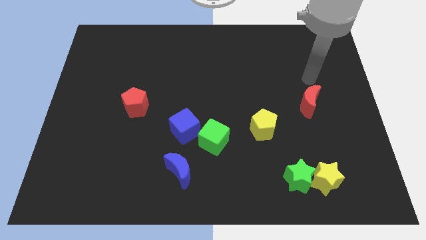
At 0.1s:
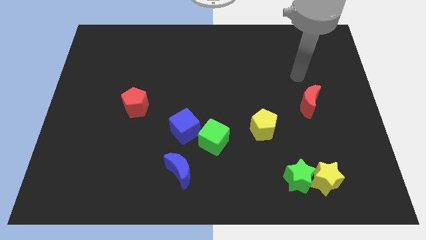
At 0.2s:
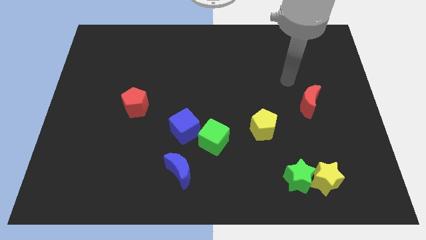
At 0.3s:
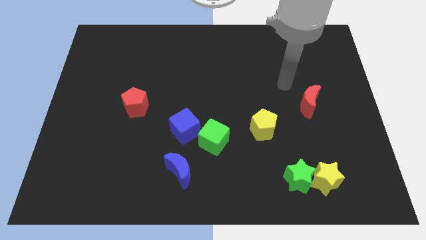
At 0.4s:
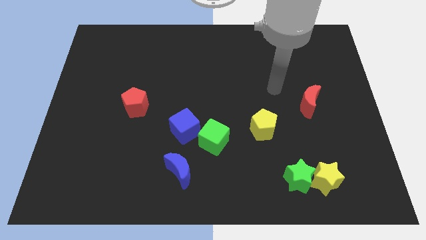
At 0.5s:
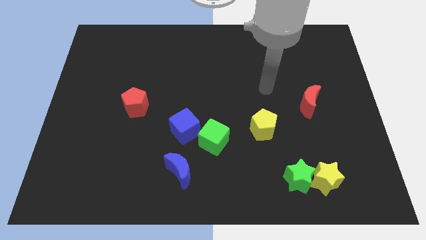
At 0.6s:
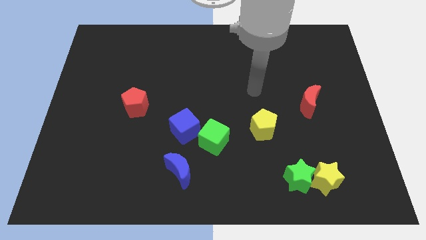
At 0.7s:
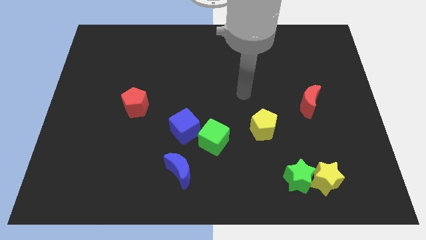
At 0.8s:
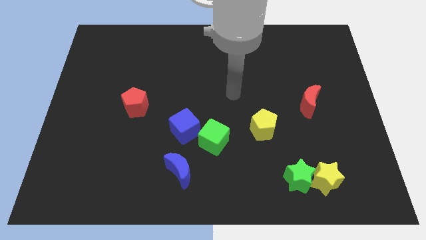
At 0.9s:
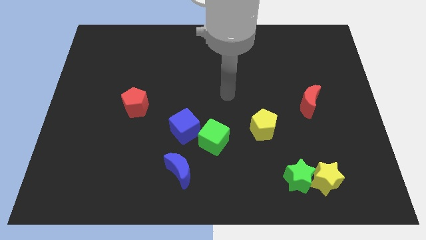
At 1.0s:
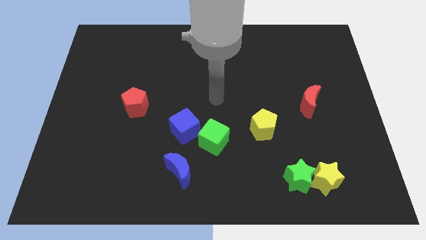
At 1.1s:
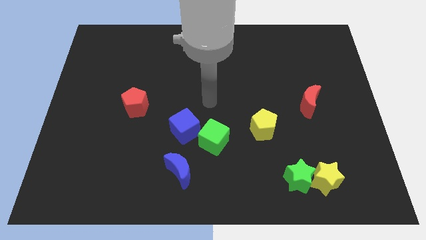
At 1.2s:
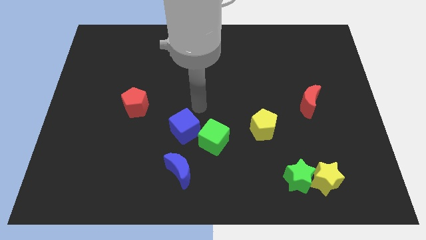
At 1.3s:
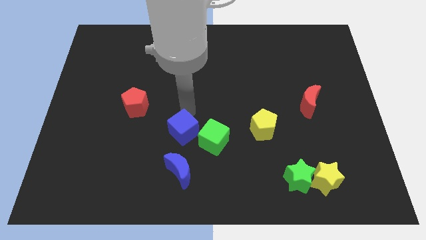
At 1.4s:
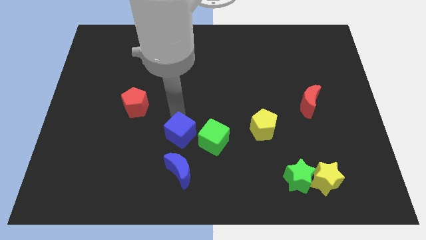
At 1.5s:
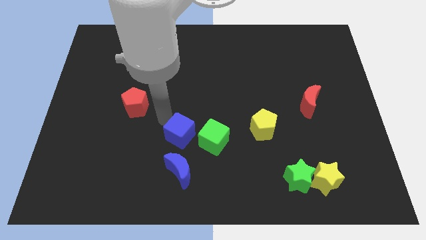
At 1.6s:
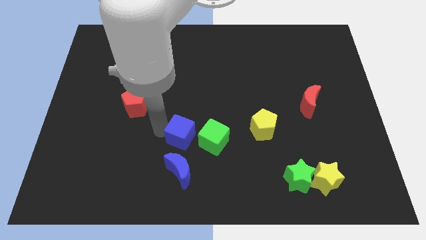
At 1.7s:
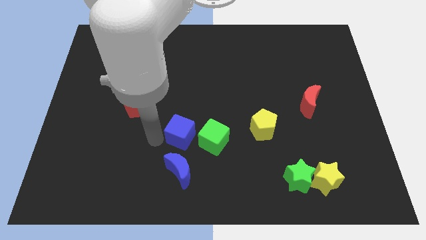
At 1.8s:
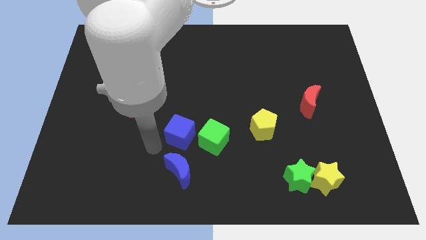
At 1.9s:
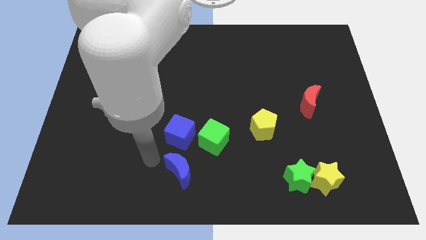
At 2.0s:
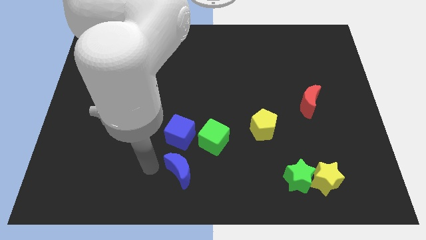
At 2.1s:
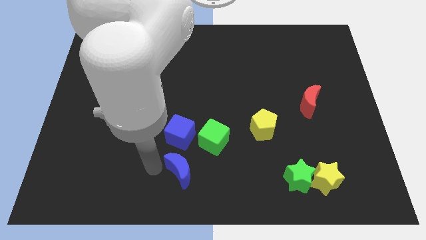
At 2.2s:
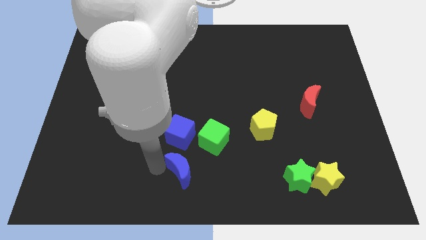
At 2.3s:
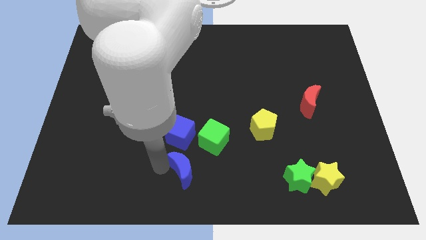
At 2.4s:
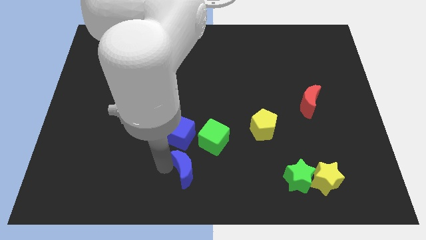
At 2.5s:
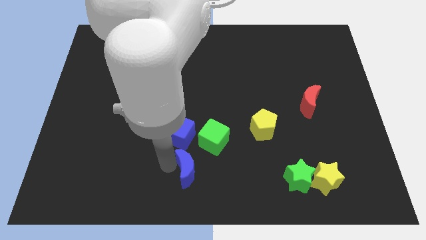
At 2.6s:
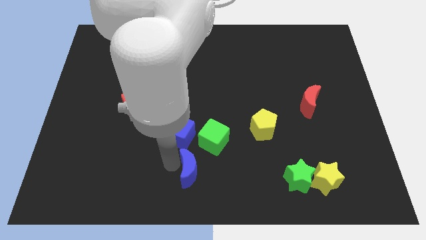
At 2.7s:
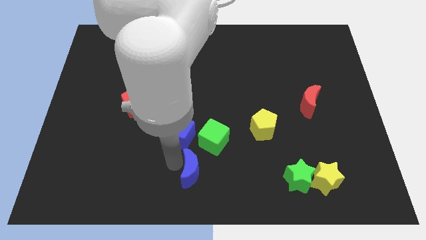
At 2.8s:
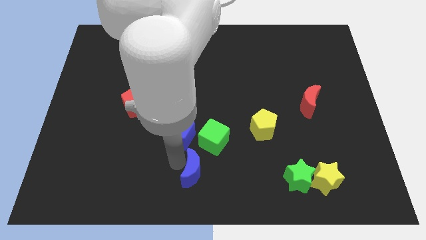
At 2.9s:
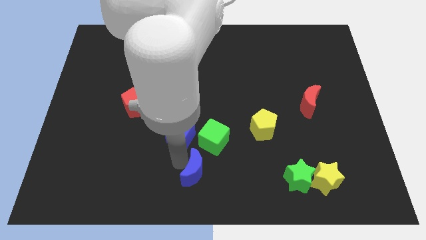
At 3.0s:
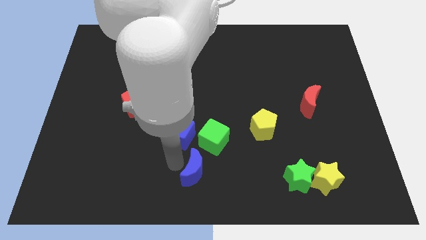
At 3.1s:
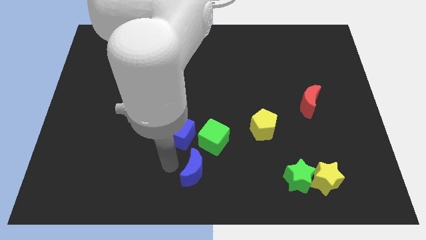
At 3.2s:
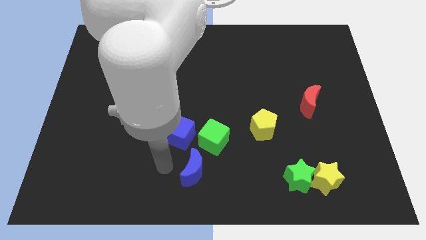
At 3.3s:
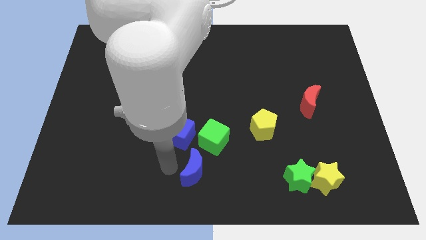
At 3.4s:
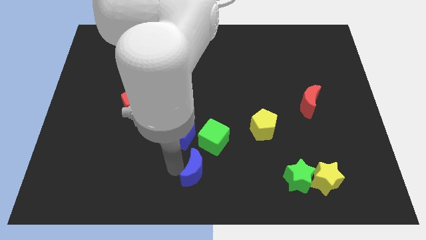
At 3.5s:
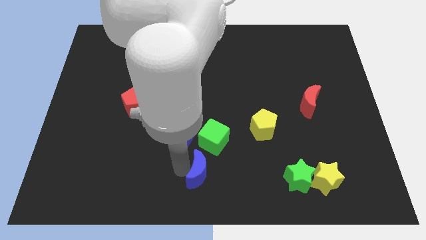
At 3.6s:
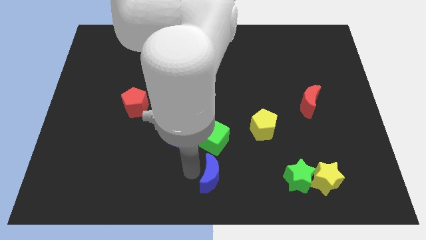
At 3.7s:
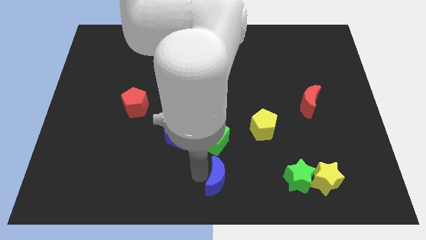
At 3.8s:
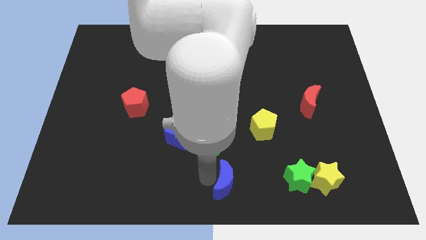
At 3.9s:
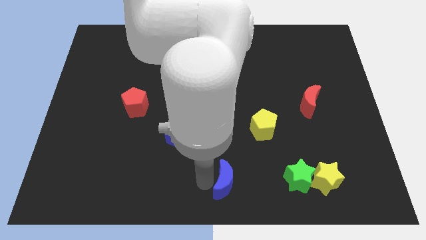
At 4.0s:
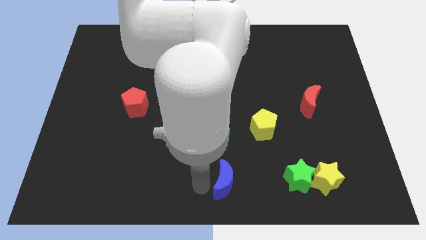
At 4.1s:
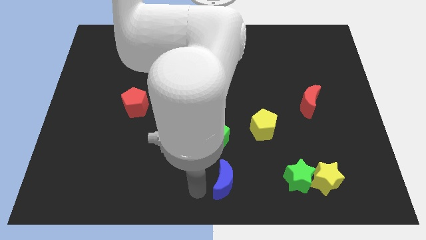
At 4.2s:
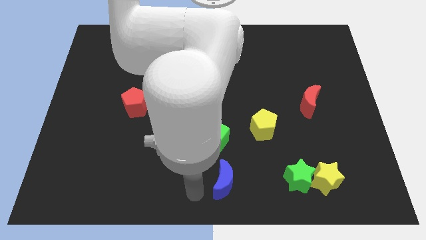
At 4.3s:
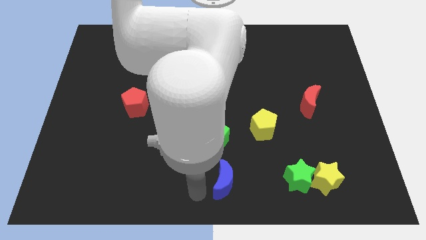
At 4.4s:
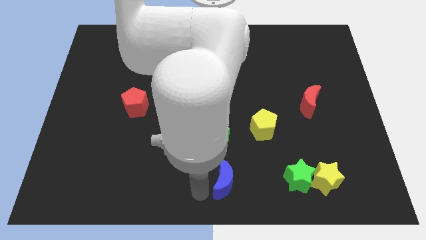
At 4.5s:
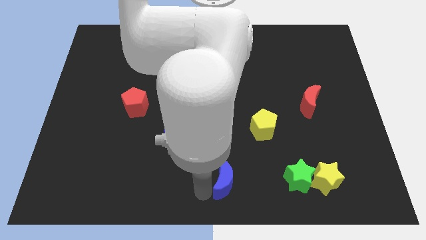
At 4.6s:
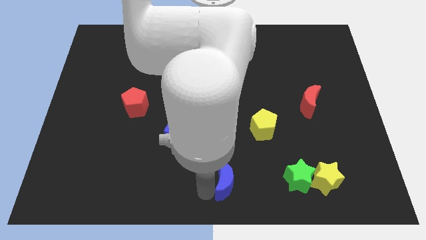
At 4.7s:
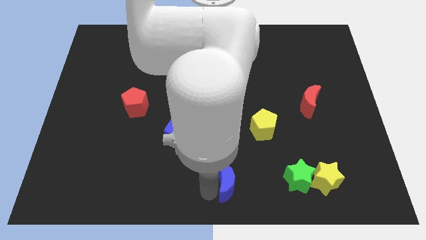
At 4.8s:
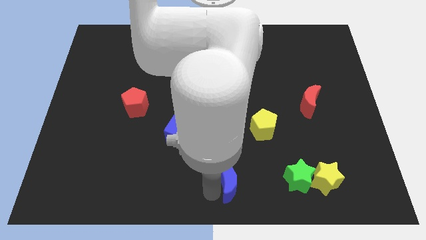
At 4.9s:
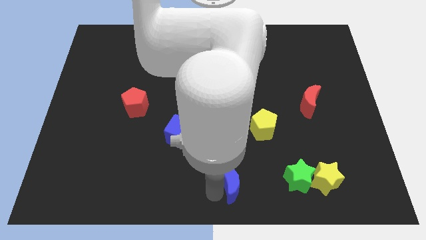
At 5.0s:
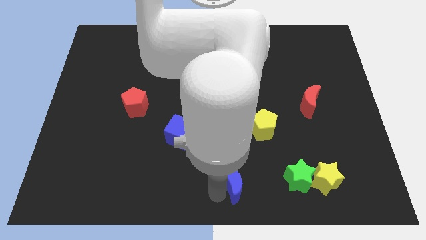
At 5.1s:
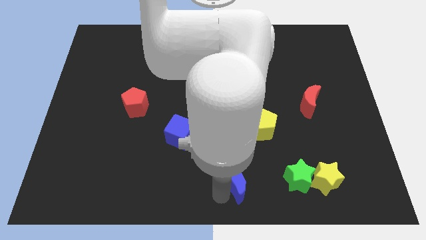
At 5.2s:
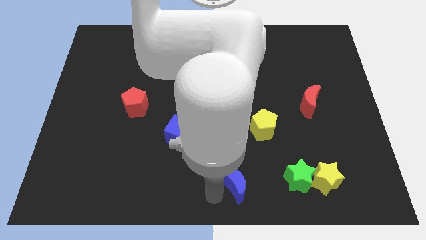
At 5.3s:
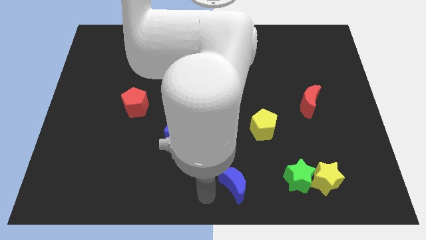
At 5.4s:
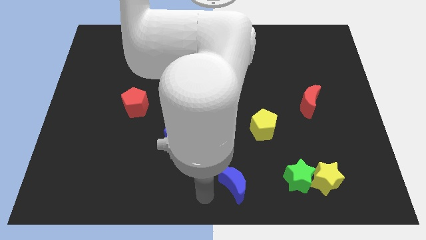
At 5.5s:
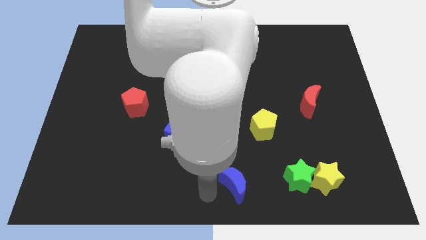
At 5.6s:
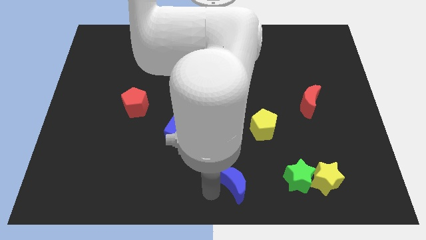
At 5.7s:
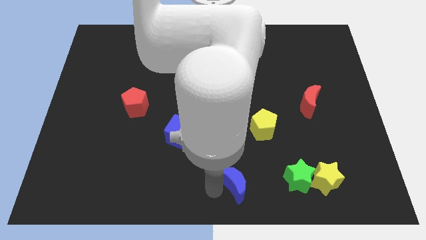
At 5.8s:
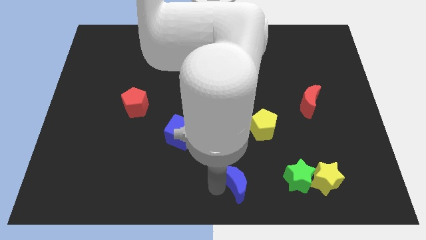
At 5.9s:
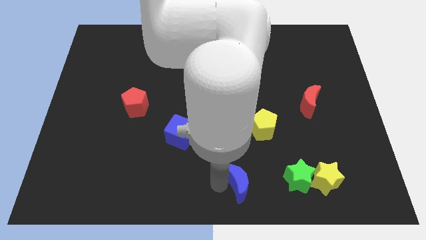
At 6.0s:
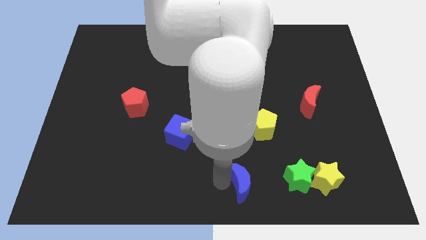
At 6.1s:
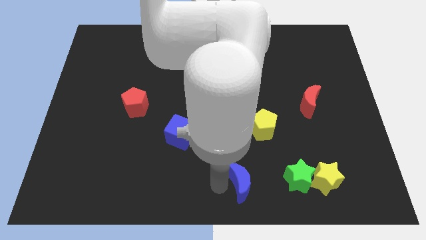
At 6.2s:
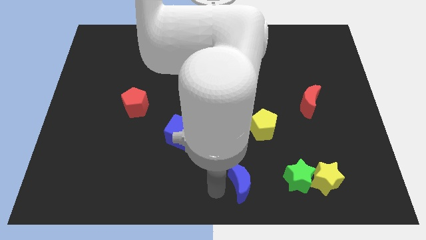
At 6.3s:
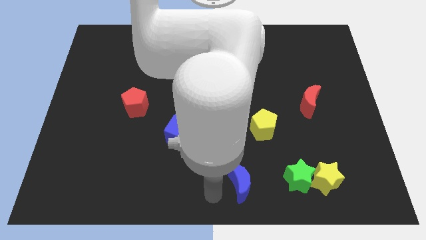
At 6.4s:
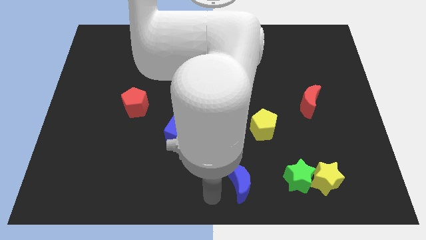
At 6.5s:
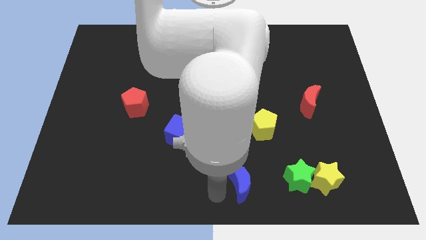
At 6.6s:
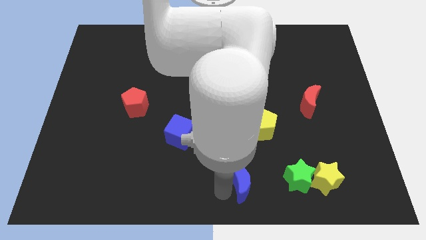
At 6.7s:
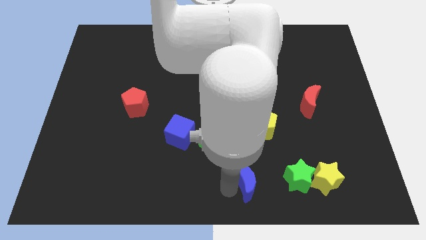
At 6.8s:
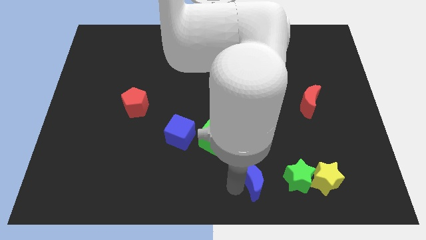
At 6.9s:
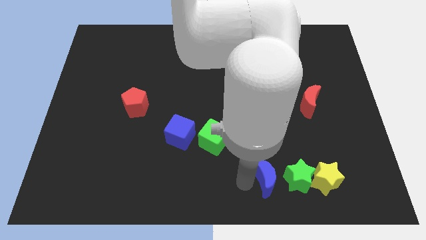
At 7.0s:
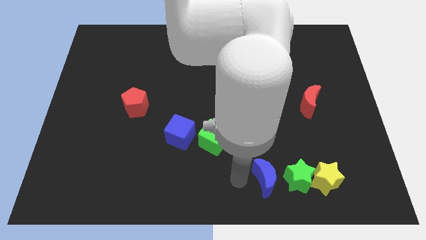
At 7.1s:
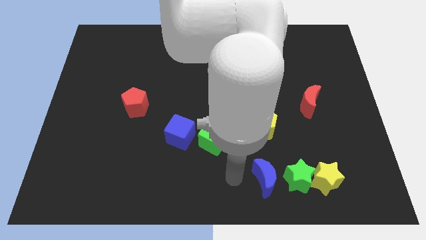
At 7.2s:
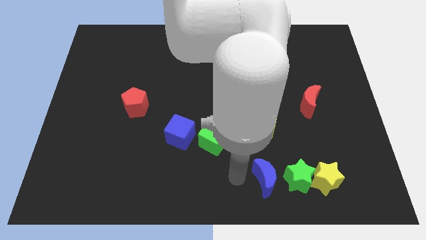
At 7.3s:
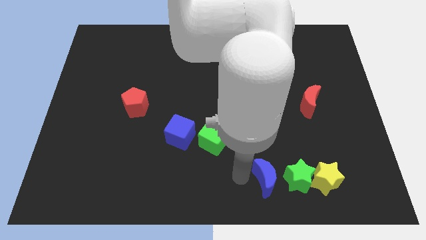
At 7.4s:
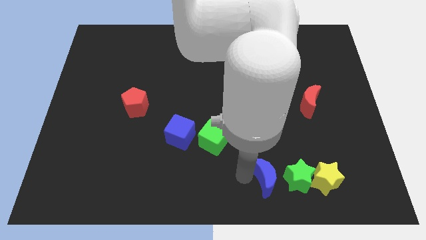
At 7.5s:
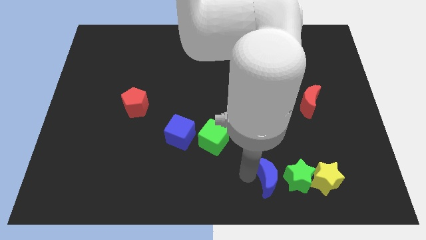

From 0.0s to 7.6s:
put the blue moon towards the green star
